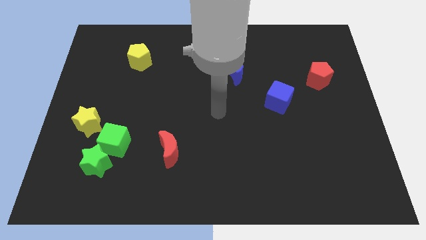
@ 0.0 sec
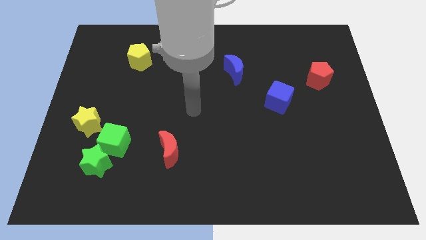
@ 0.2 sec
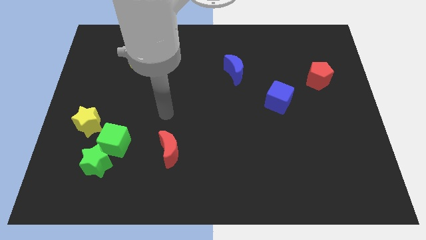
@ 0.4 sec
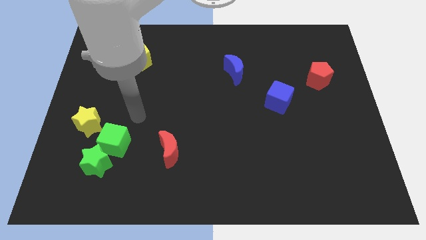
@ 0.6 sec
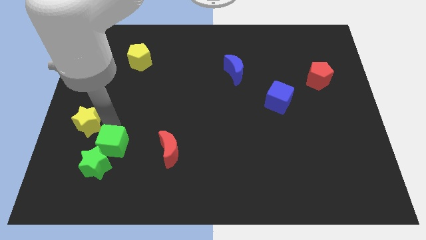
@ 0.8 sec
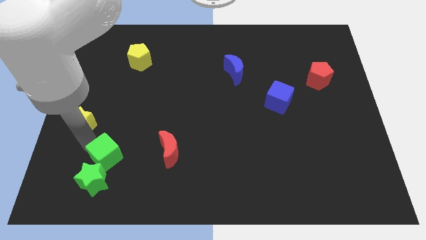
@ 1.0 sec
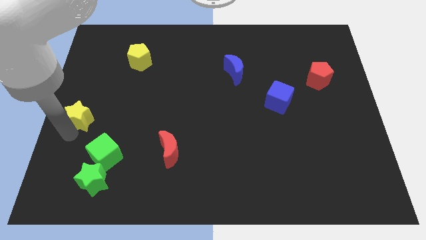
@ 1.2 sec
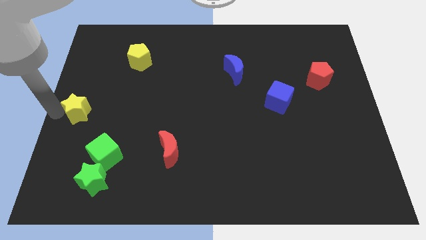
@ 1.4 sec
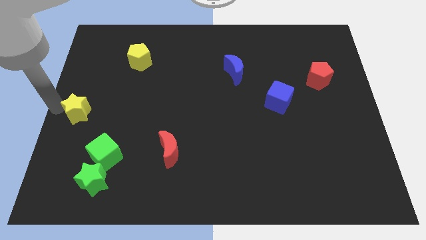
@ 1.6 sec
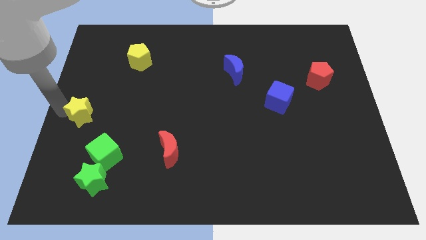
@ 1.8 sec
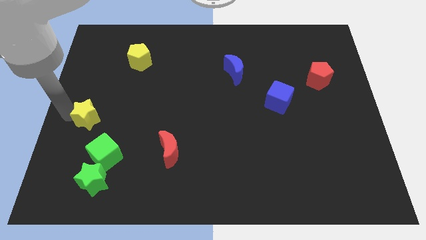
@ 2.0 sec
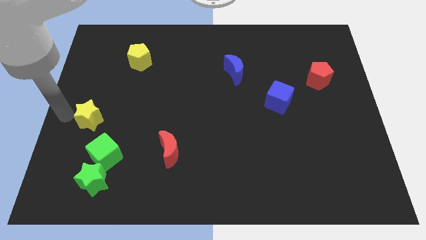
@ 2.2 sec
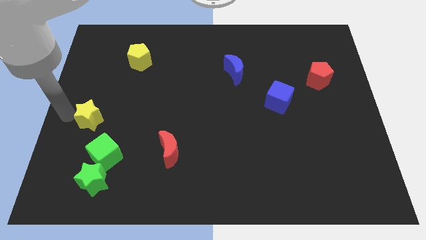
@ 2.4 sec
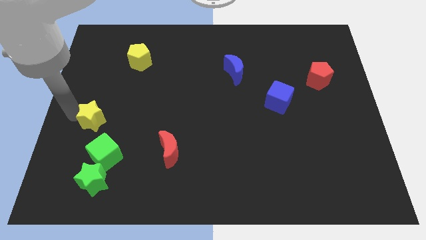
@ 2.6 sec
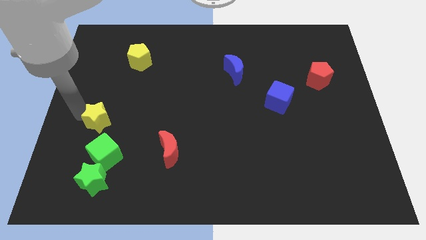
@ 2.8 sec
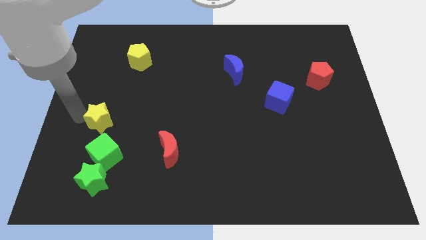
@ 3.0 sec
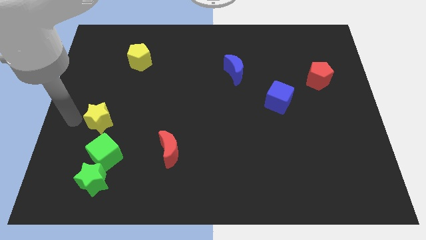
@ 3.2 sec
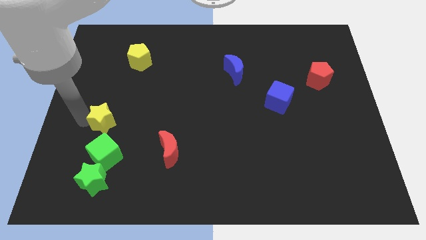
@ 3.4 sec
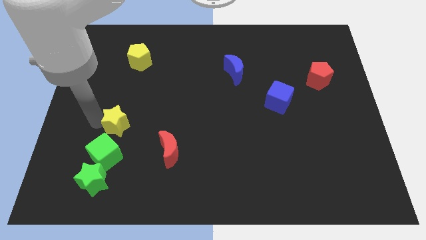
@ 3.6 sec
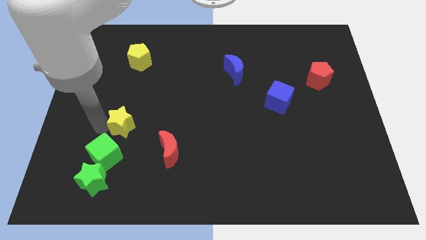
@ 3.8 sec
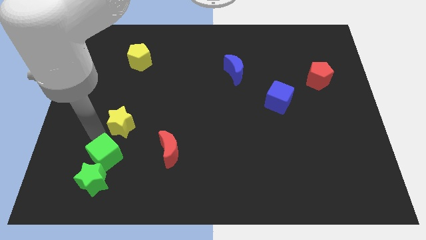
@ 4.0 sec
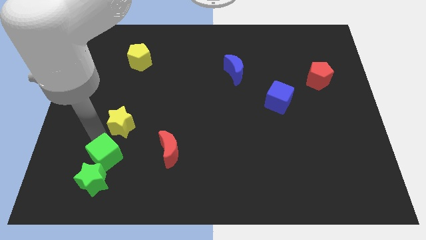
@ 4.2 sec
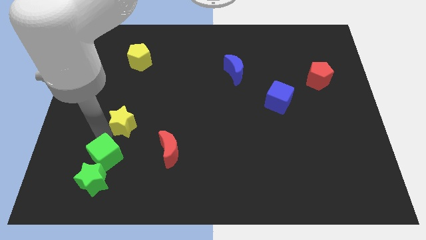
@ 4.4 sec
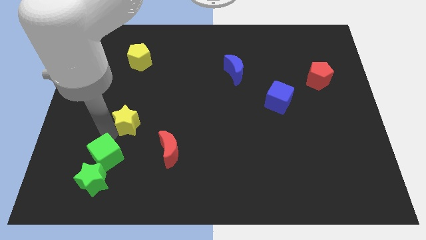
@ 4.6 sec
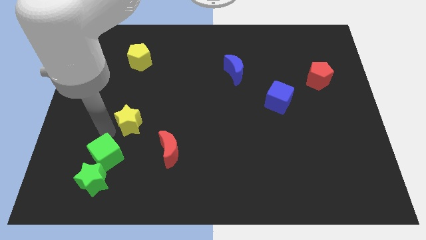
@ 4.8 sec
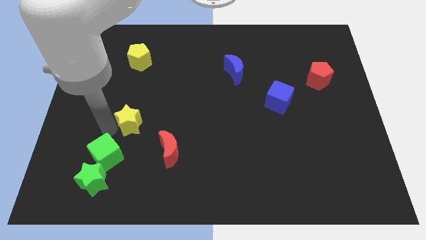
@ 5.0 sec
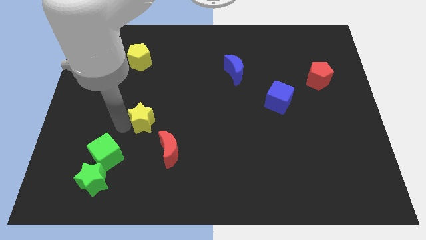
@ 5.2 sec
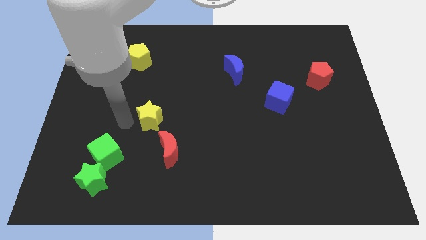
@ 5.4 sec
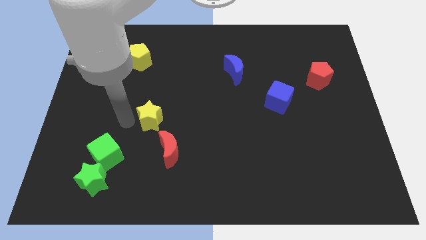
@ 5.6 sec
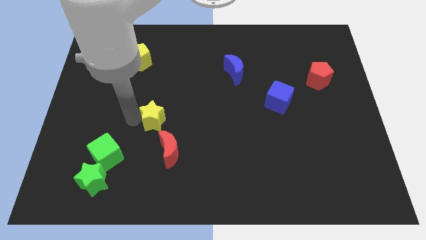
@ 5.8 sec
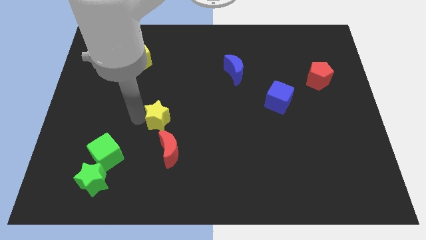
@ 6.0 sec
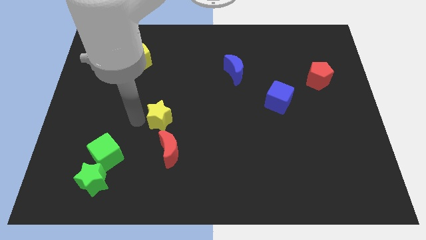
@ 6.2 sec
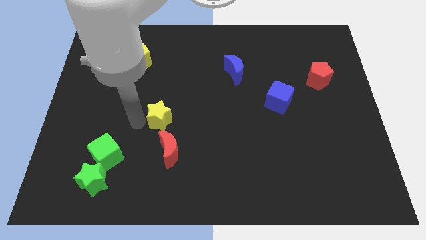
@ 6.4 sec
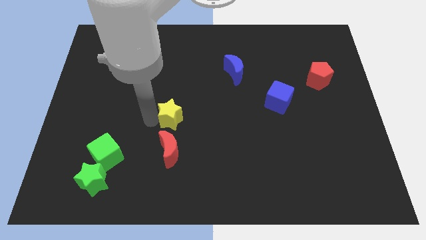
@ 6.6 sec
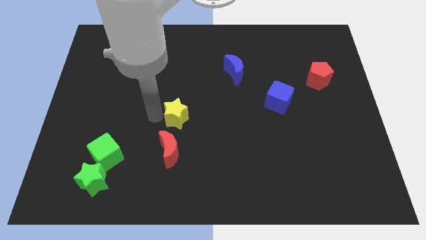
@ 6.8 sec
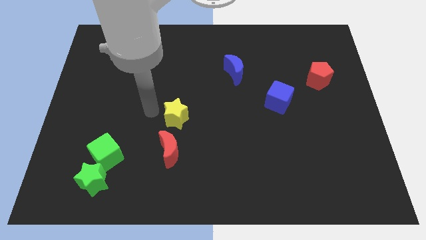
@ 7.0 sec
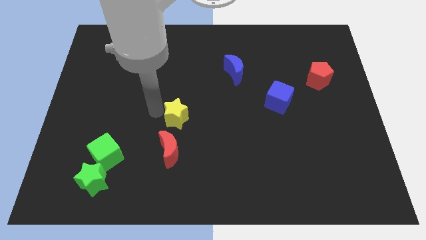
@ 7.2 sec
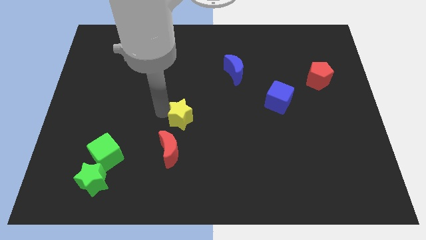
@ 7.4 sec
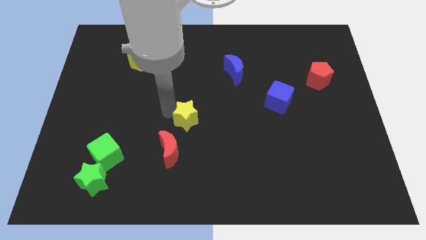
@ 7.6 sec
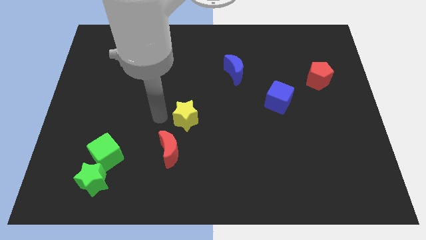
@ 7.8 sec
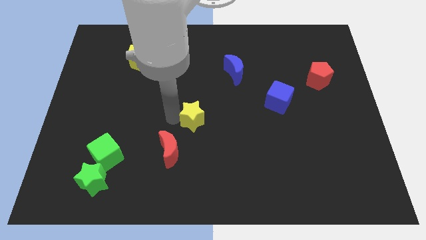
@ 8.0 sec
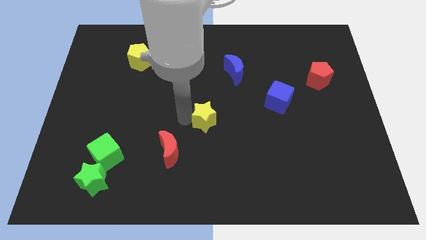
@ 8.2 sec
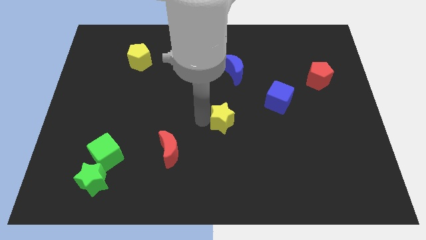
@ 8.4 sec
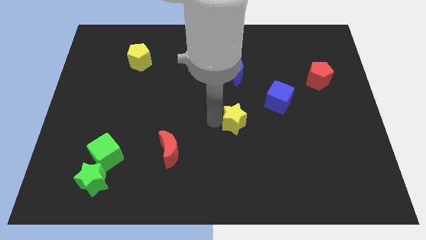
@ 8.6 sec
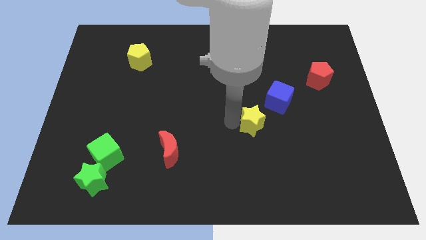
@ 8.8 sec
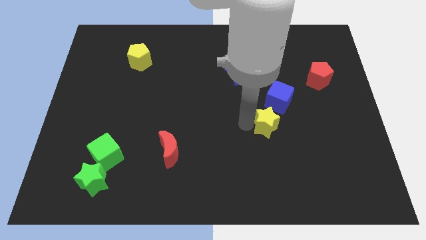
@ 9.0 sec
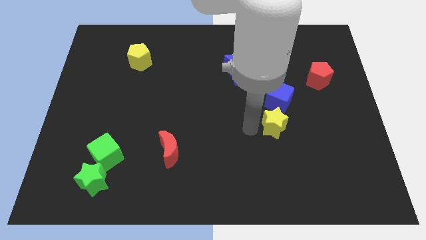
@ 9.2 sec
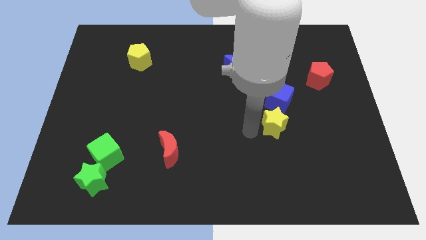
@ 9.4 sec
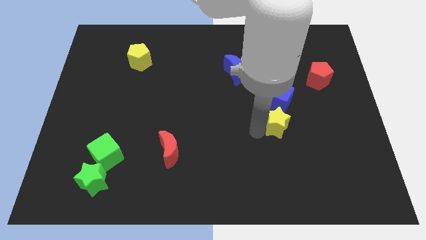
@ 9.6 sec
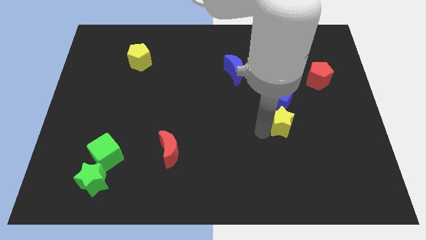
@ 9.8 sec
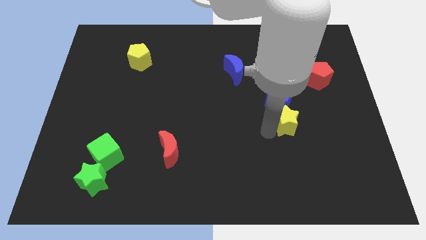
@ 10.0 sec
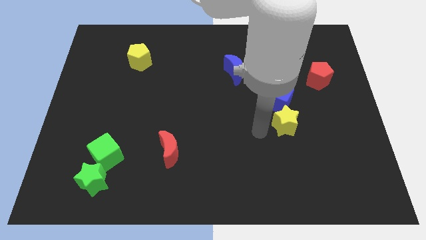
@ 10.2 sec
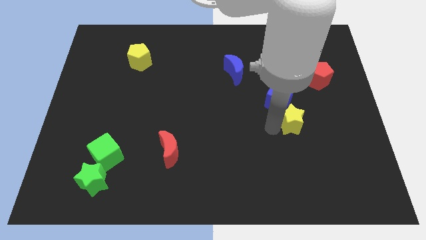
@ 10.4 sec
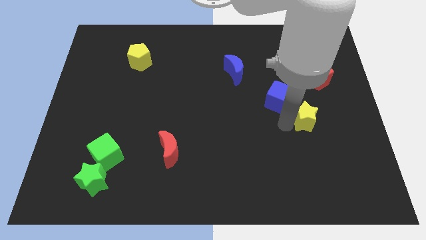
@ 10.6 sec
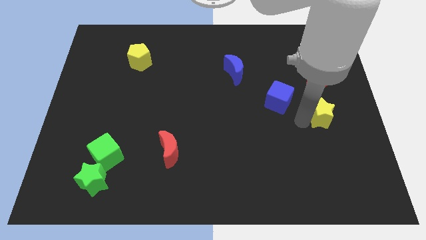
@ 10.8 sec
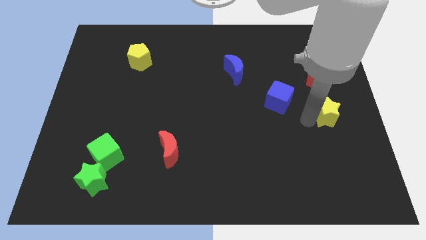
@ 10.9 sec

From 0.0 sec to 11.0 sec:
slide the yellow star to the right side of the board

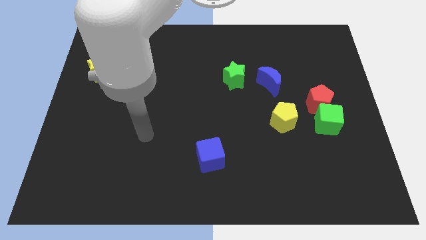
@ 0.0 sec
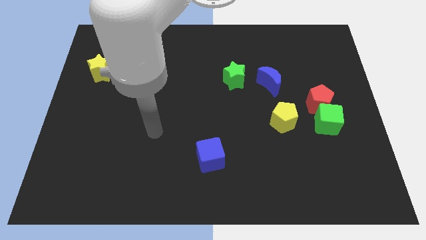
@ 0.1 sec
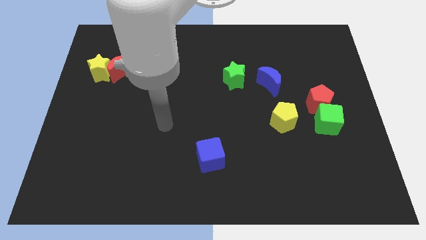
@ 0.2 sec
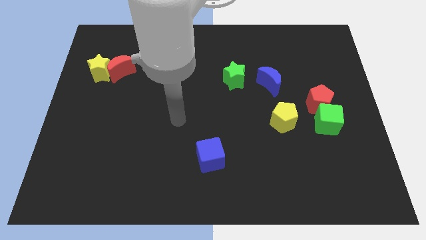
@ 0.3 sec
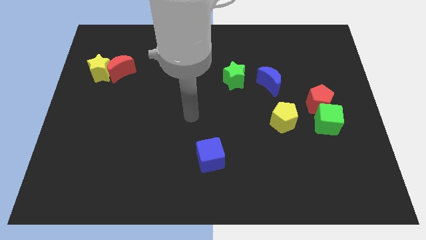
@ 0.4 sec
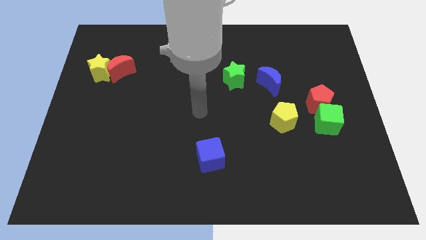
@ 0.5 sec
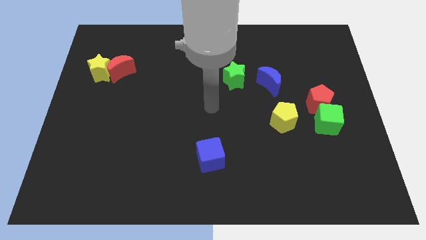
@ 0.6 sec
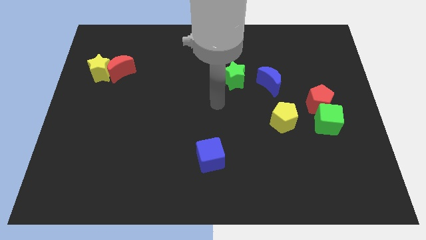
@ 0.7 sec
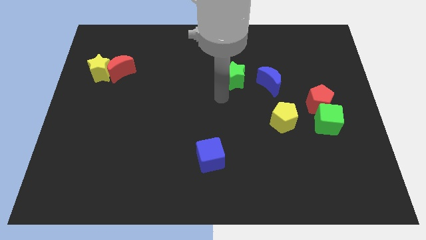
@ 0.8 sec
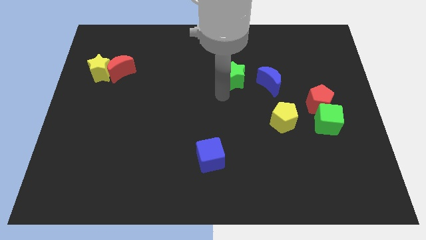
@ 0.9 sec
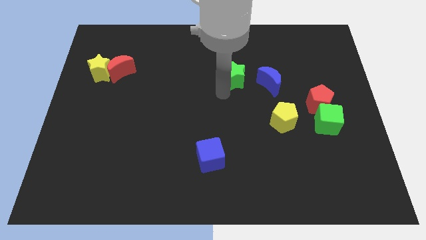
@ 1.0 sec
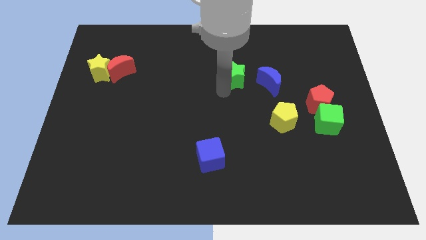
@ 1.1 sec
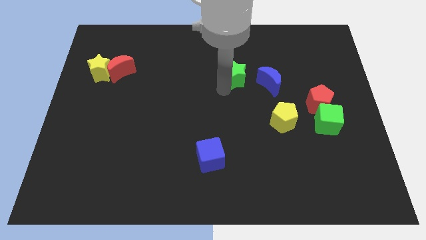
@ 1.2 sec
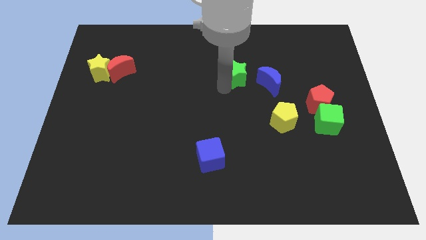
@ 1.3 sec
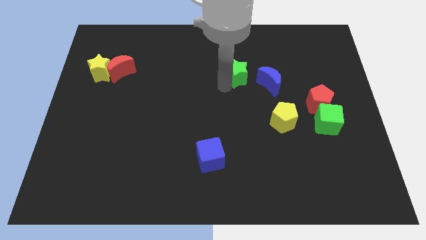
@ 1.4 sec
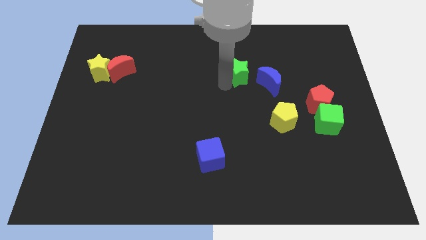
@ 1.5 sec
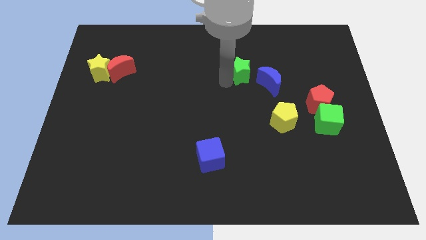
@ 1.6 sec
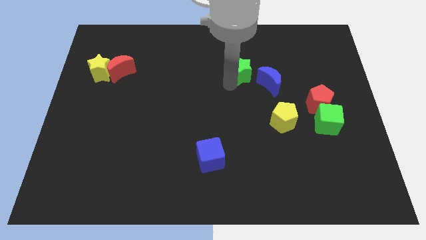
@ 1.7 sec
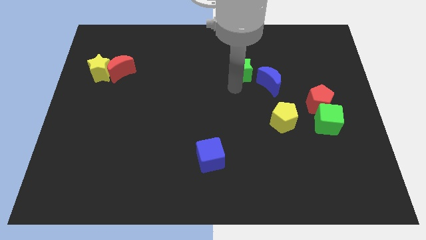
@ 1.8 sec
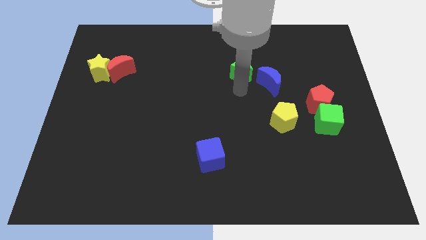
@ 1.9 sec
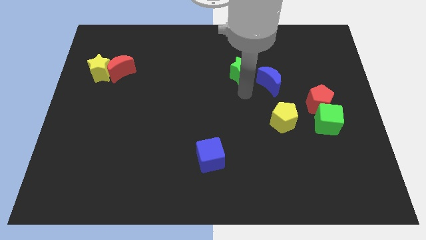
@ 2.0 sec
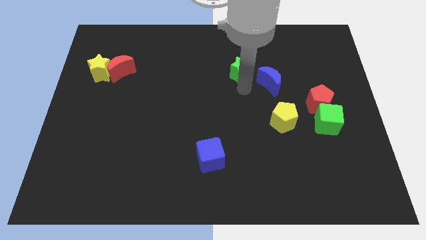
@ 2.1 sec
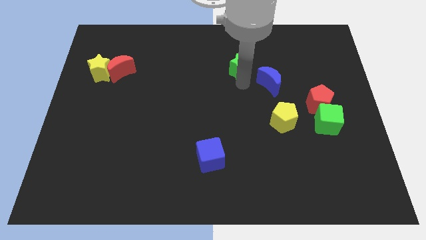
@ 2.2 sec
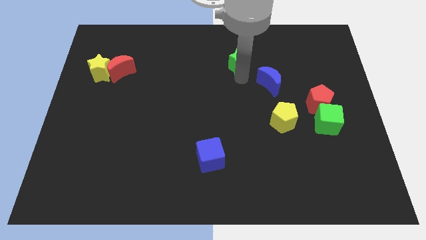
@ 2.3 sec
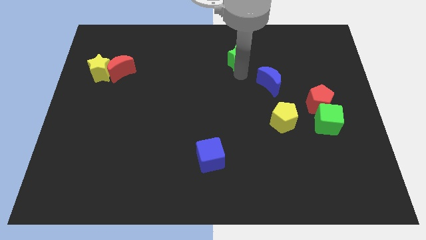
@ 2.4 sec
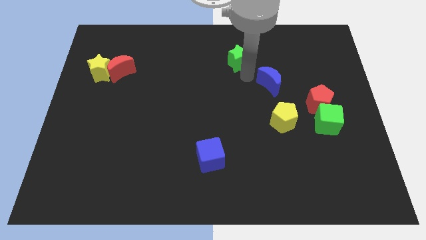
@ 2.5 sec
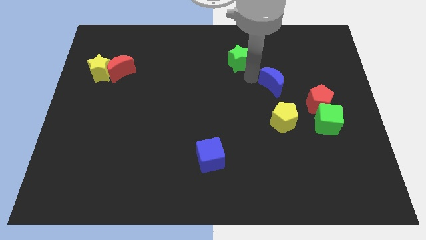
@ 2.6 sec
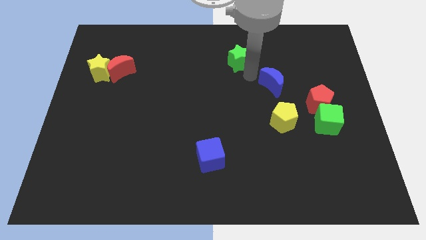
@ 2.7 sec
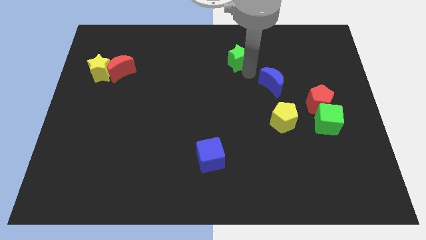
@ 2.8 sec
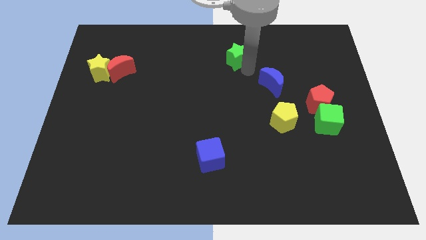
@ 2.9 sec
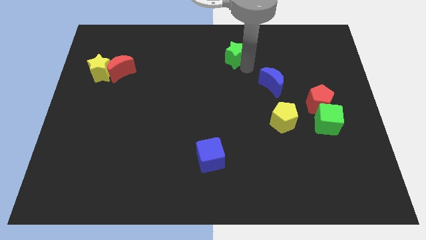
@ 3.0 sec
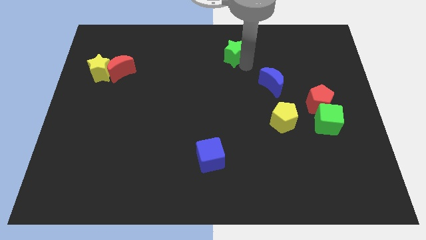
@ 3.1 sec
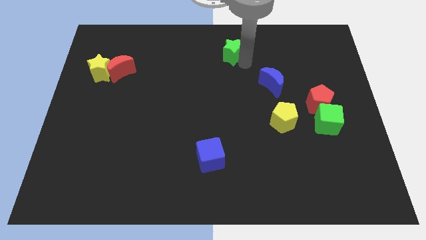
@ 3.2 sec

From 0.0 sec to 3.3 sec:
push the green star to the top
